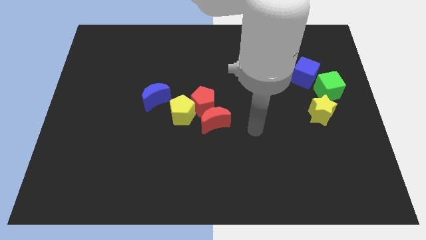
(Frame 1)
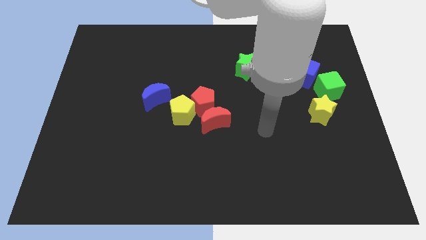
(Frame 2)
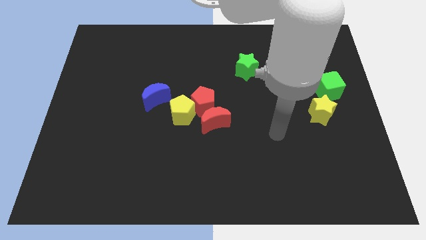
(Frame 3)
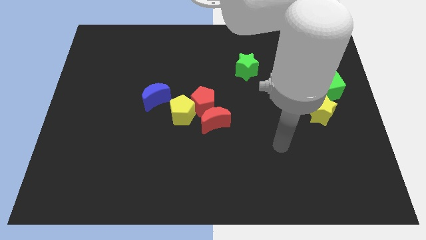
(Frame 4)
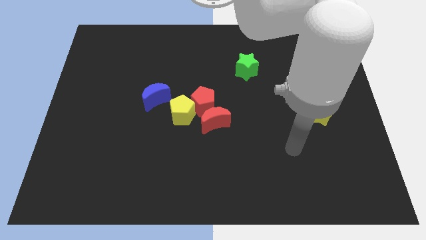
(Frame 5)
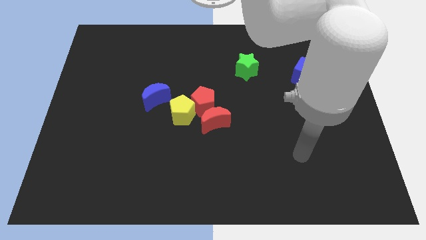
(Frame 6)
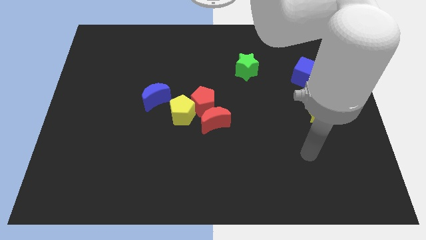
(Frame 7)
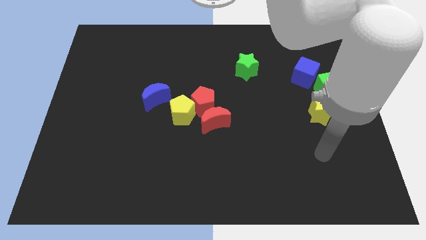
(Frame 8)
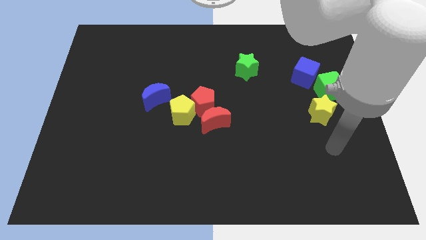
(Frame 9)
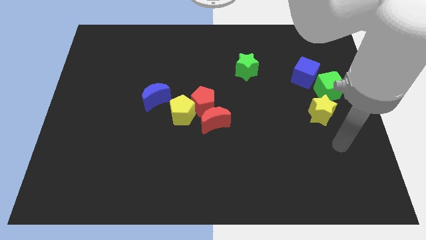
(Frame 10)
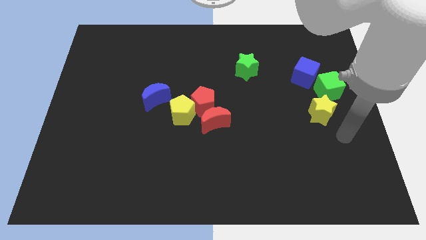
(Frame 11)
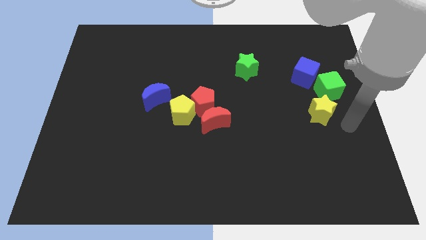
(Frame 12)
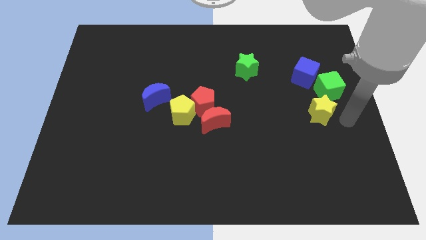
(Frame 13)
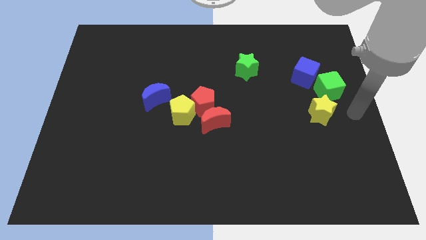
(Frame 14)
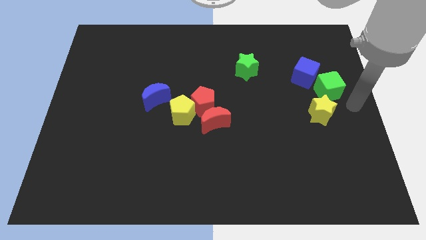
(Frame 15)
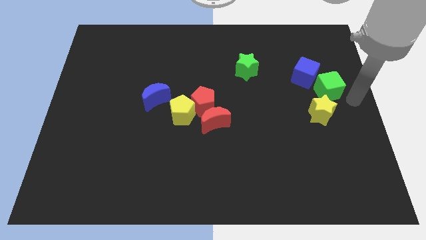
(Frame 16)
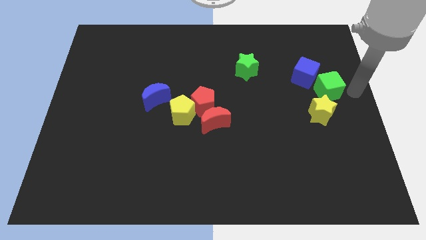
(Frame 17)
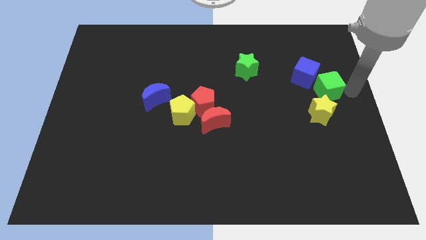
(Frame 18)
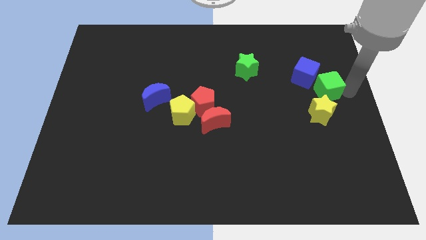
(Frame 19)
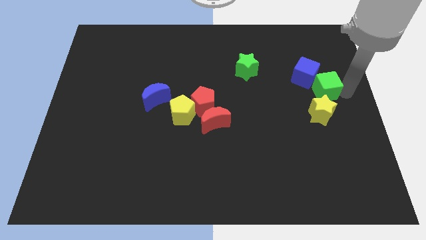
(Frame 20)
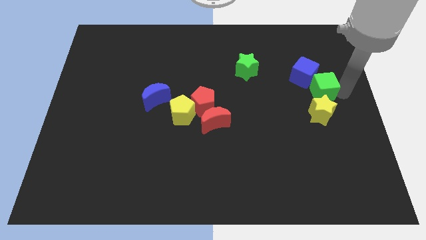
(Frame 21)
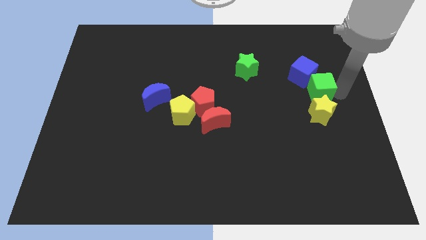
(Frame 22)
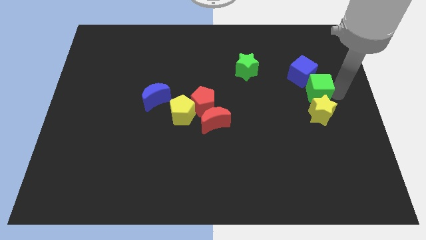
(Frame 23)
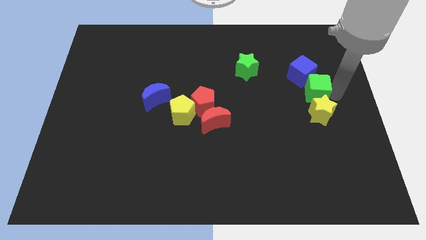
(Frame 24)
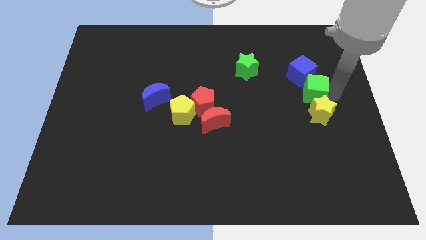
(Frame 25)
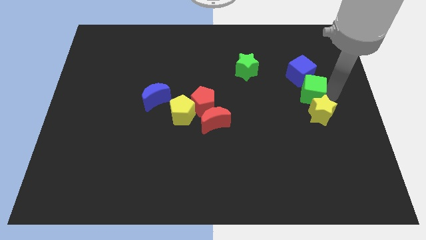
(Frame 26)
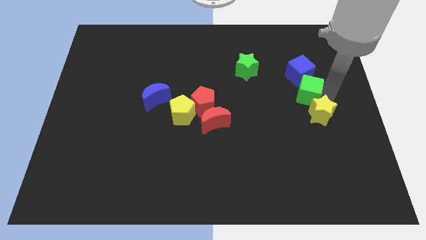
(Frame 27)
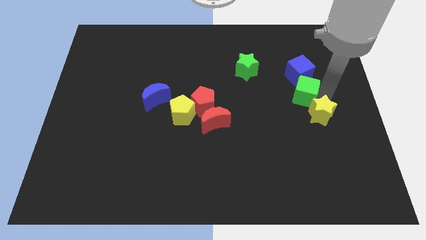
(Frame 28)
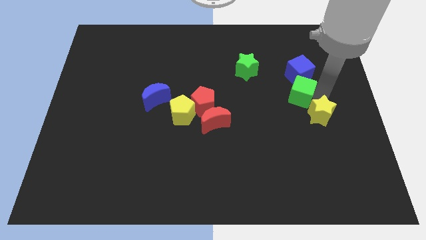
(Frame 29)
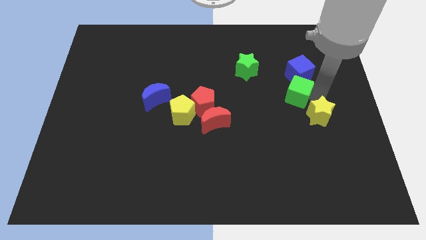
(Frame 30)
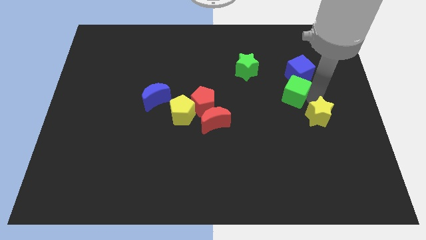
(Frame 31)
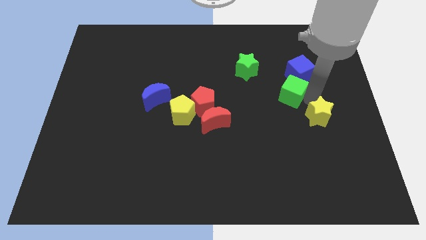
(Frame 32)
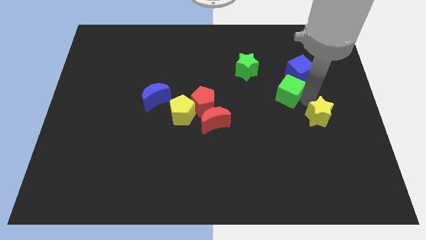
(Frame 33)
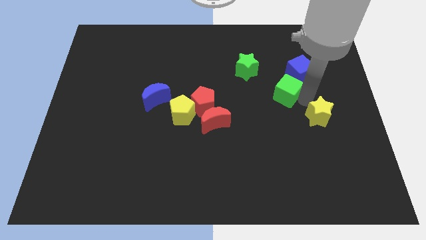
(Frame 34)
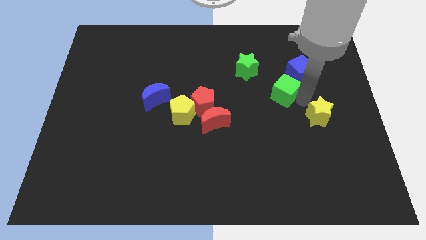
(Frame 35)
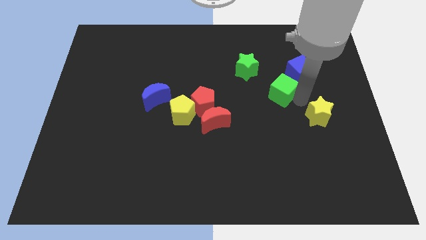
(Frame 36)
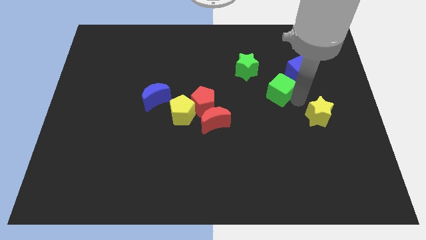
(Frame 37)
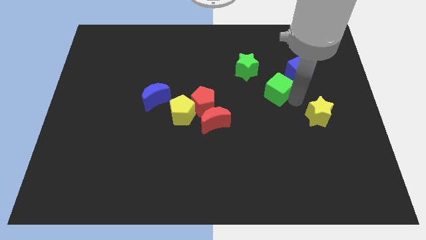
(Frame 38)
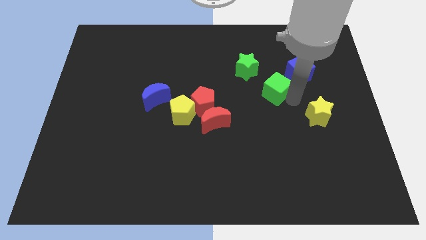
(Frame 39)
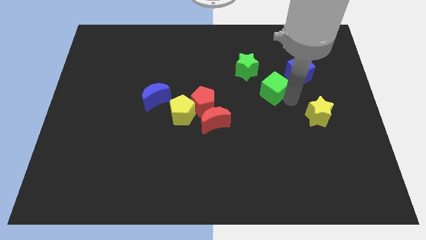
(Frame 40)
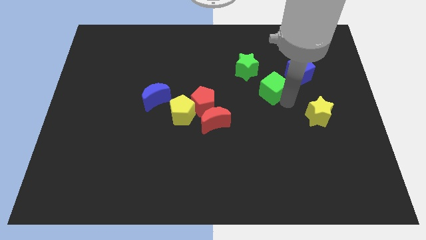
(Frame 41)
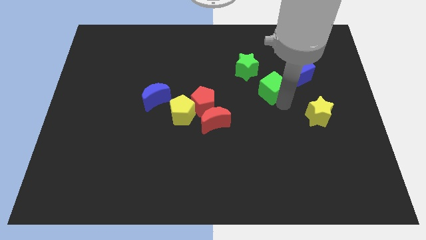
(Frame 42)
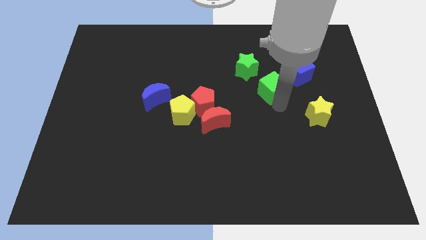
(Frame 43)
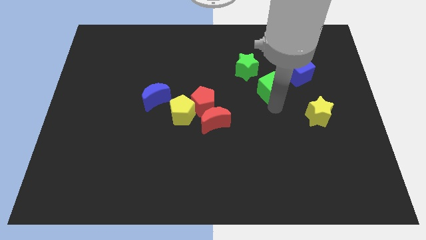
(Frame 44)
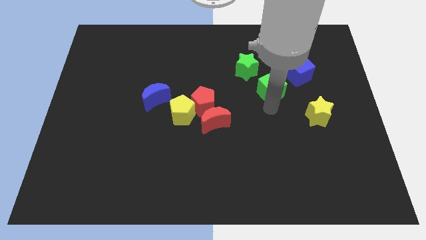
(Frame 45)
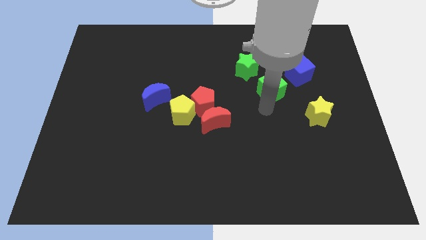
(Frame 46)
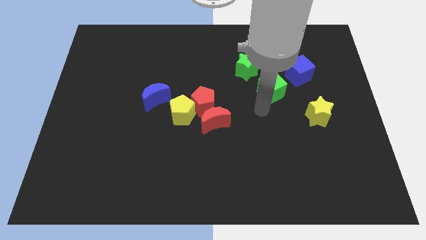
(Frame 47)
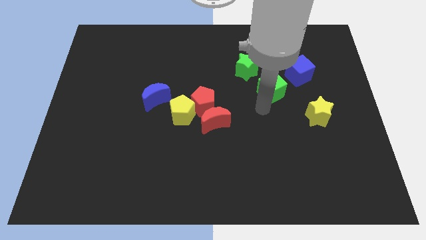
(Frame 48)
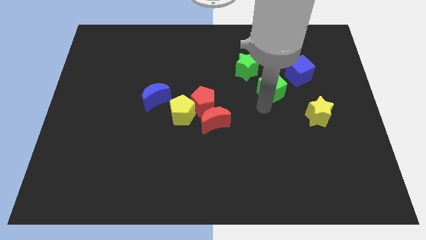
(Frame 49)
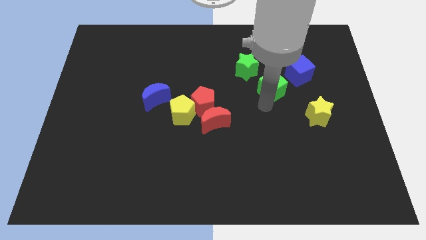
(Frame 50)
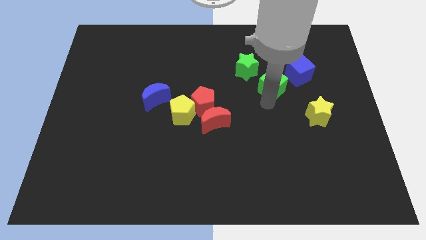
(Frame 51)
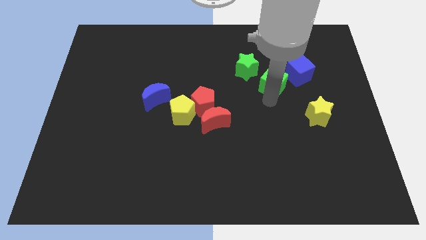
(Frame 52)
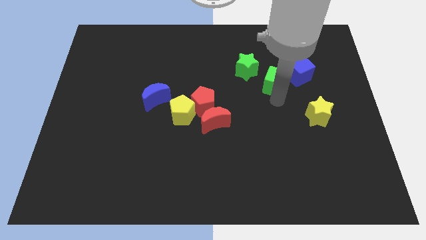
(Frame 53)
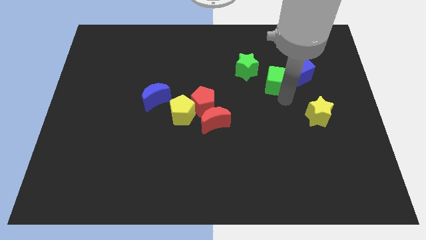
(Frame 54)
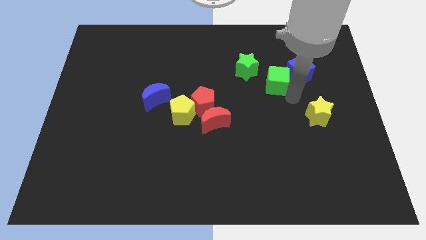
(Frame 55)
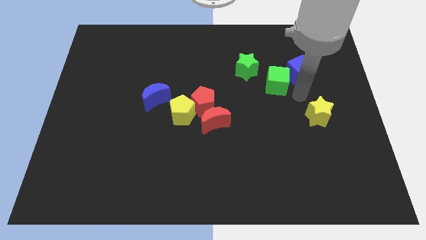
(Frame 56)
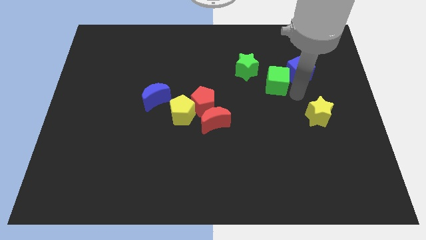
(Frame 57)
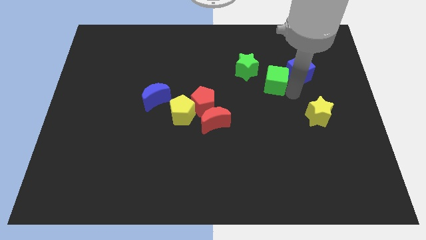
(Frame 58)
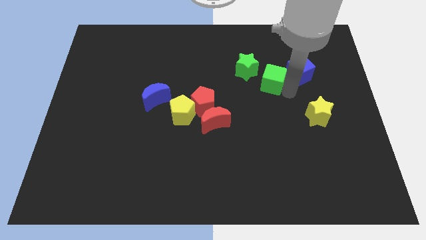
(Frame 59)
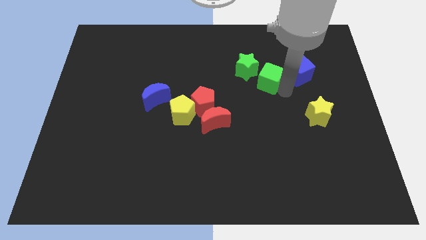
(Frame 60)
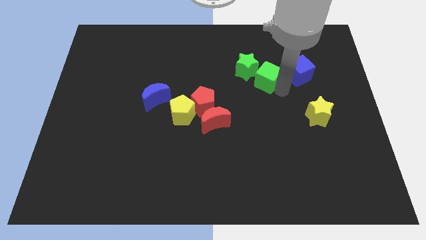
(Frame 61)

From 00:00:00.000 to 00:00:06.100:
push the green cube to the green star

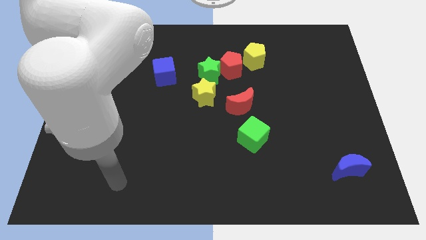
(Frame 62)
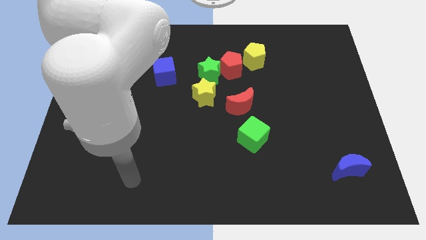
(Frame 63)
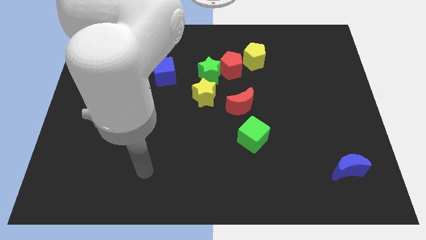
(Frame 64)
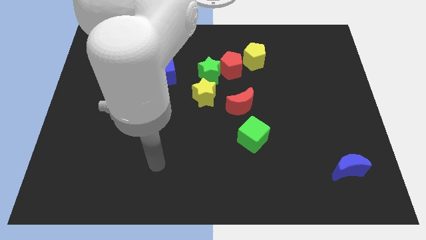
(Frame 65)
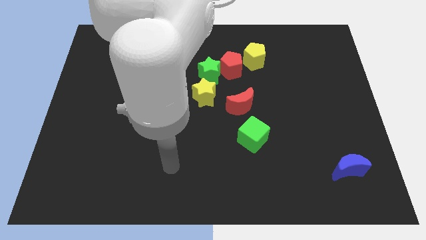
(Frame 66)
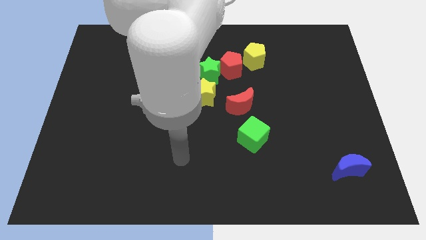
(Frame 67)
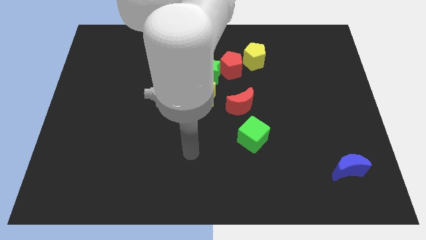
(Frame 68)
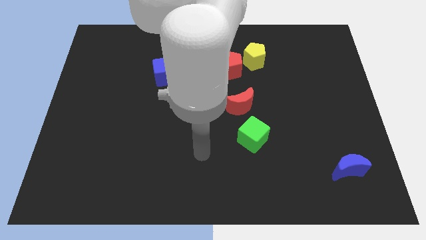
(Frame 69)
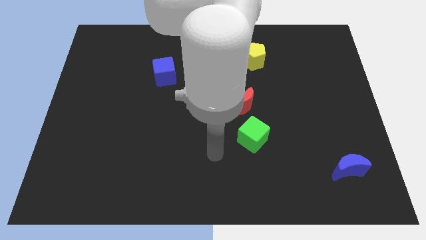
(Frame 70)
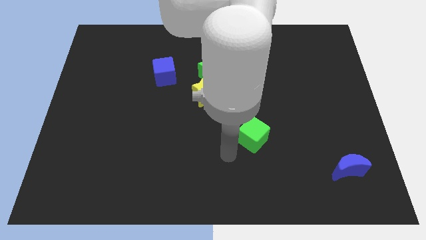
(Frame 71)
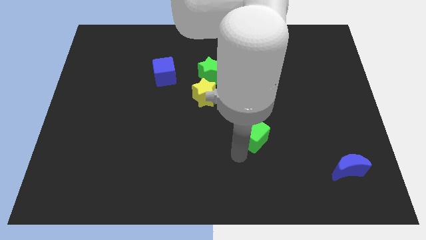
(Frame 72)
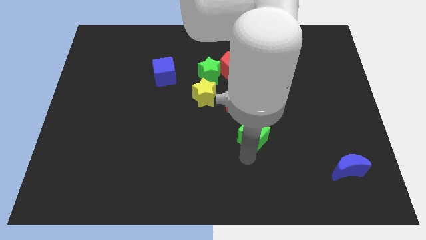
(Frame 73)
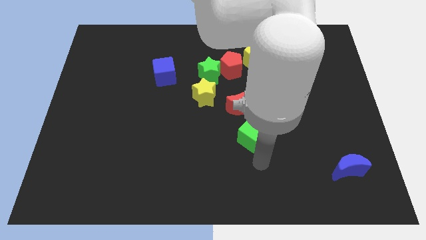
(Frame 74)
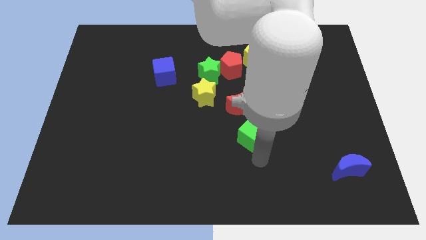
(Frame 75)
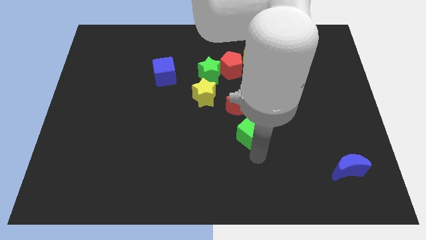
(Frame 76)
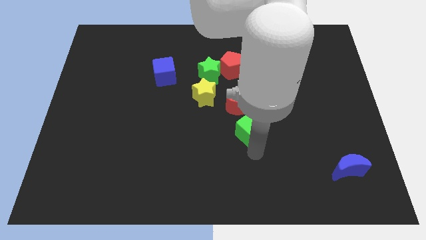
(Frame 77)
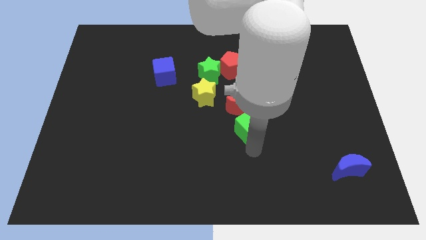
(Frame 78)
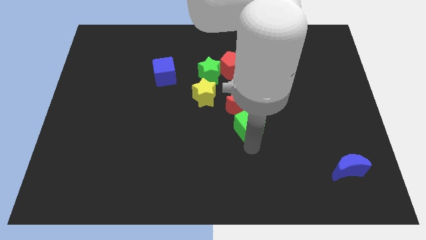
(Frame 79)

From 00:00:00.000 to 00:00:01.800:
put the green cube to the red moon
